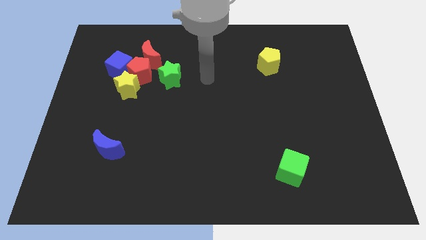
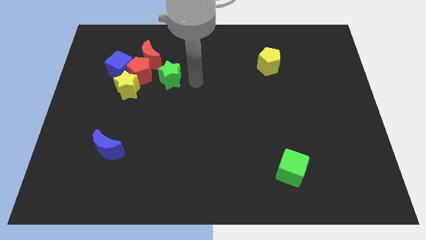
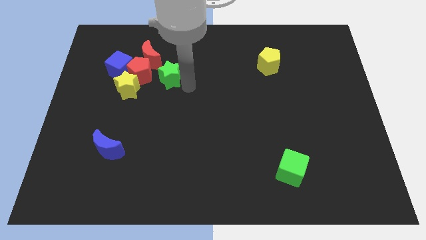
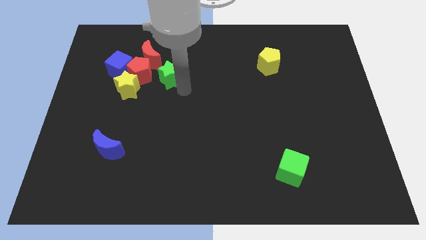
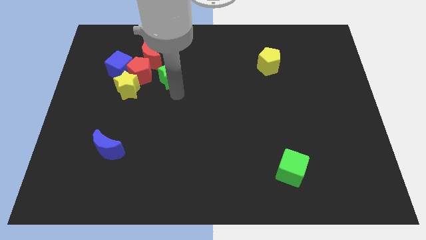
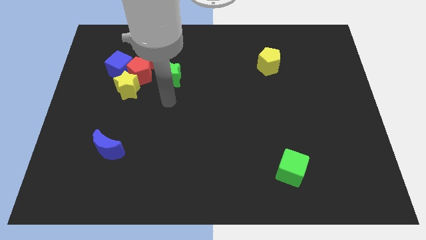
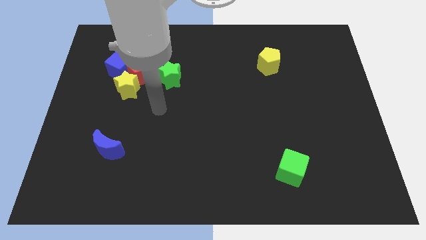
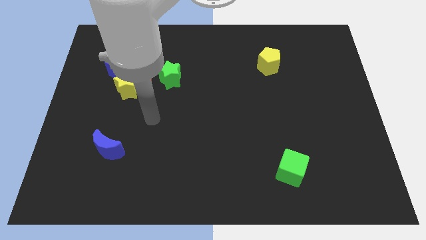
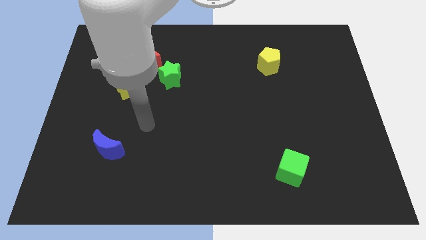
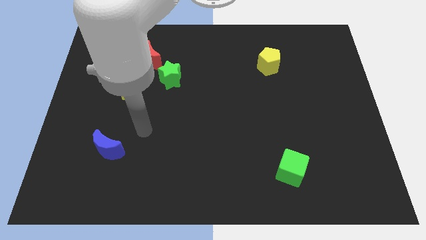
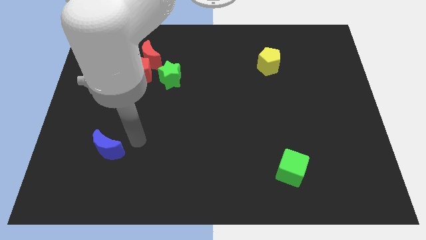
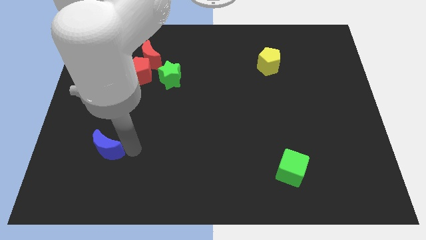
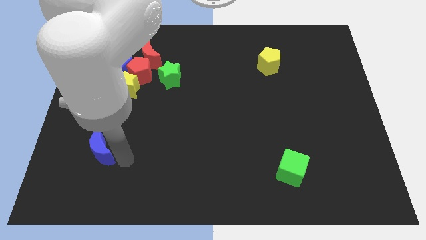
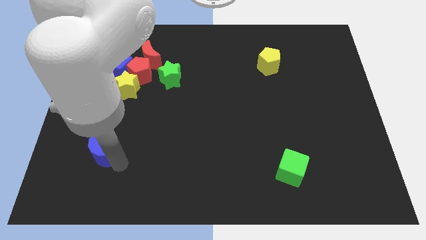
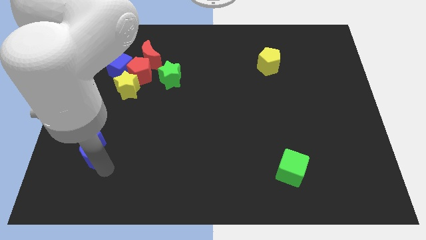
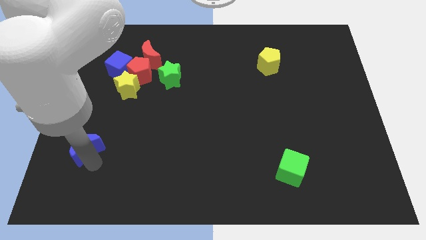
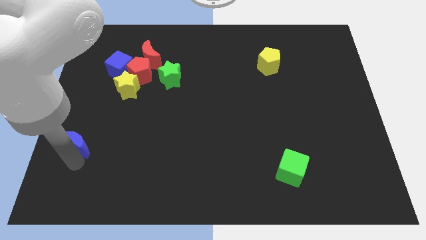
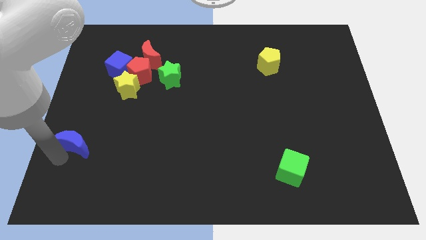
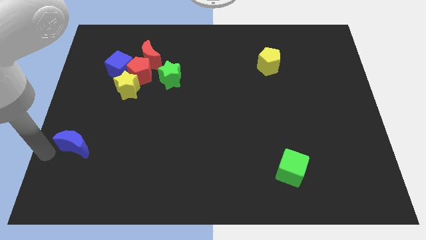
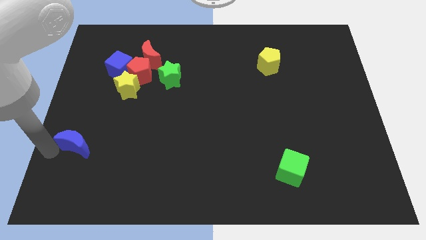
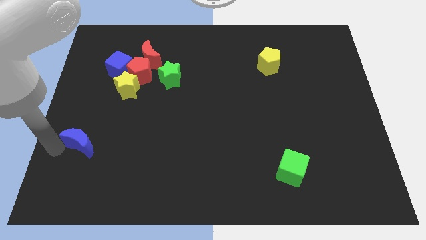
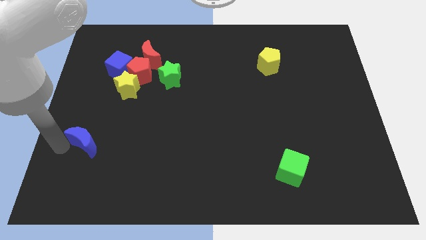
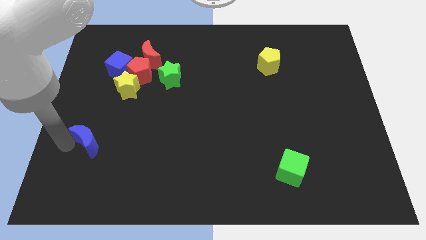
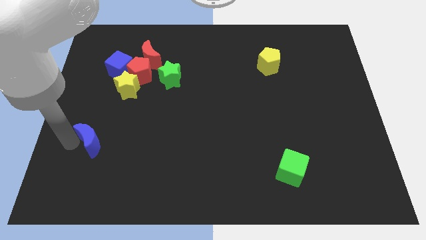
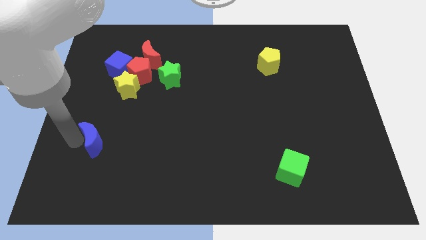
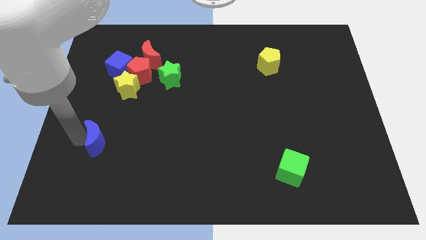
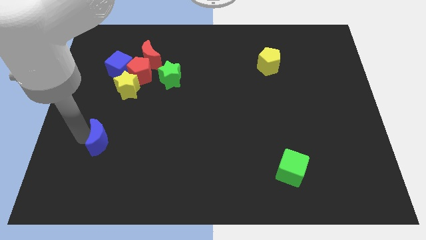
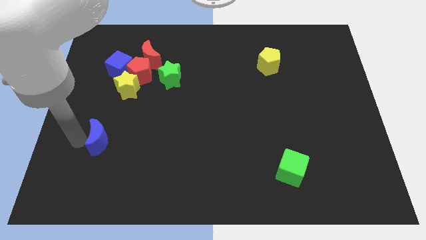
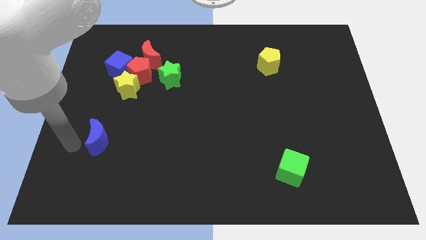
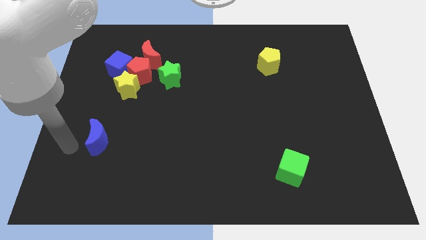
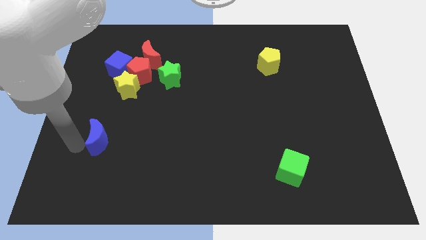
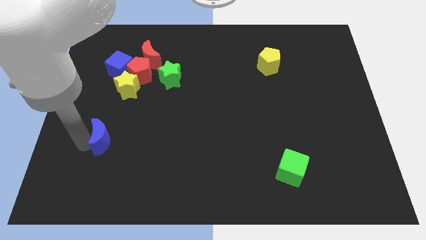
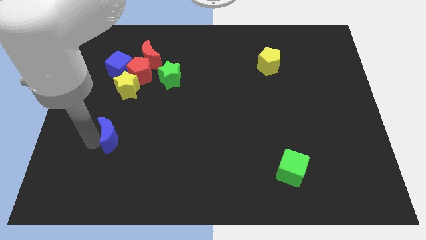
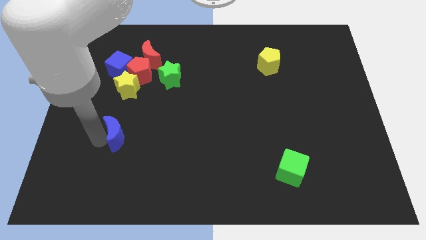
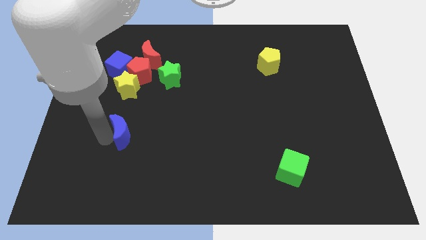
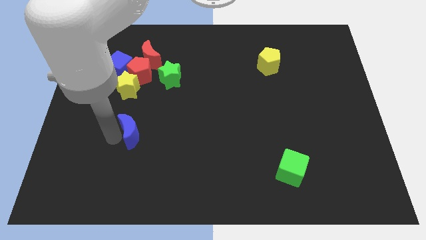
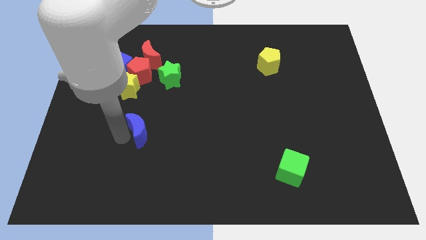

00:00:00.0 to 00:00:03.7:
slide the blue moon a little bit upwards and to the right

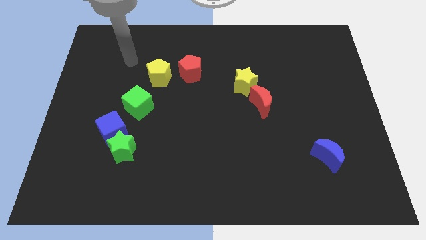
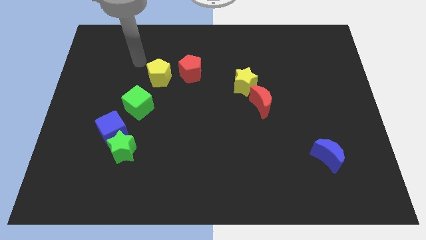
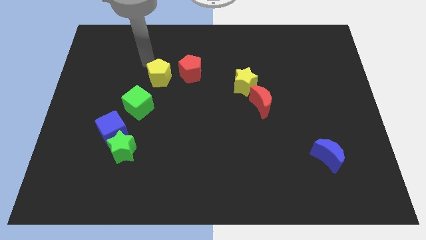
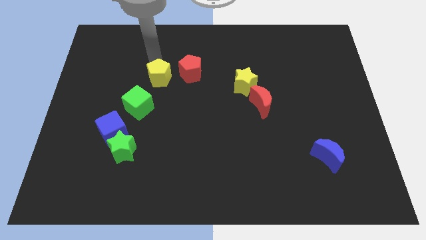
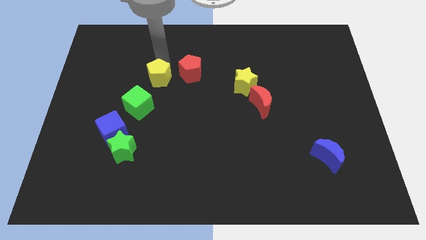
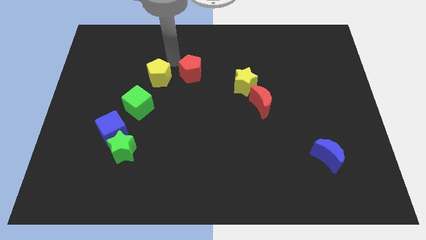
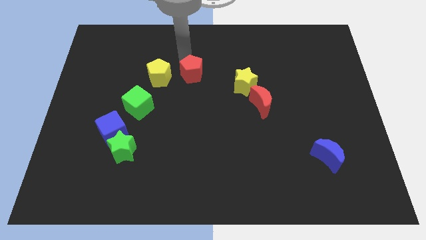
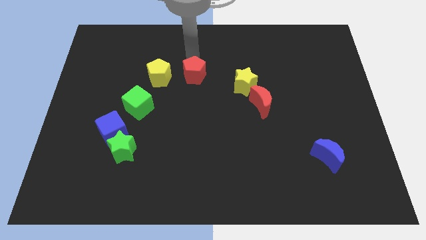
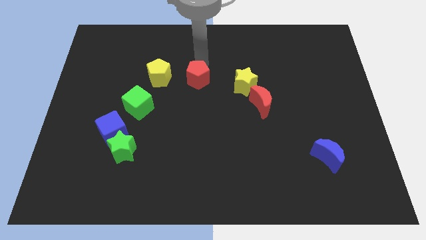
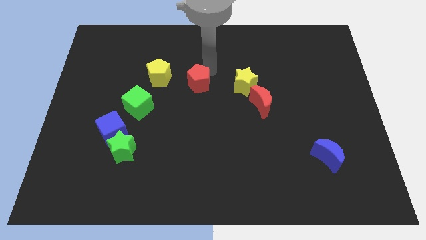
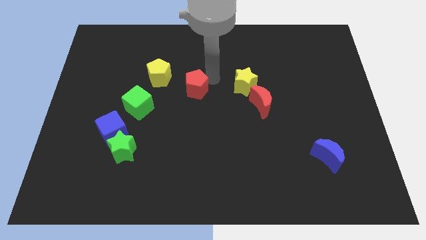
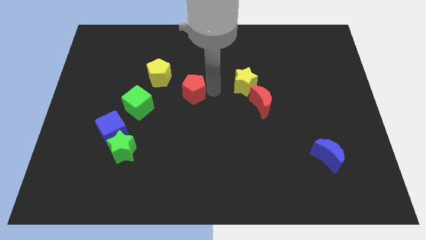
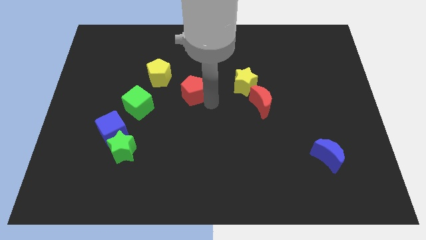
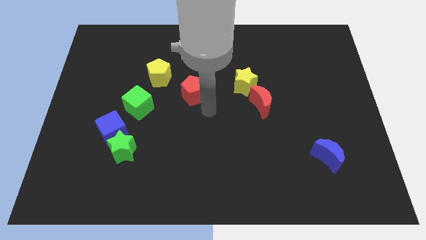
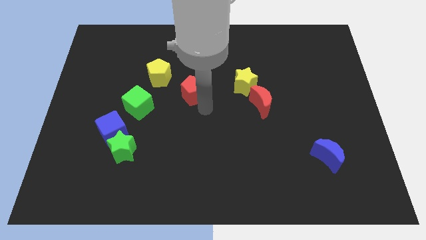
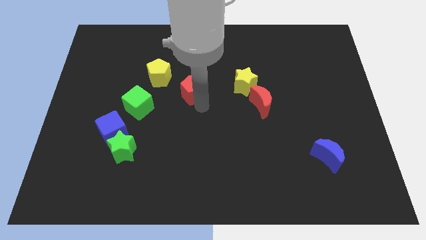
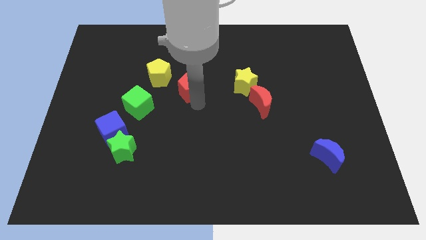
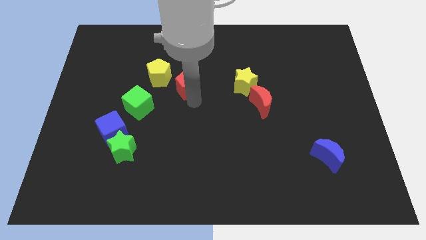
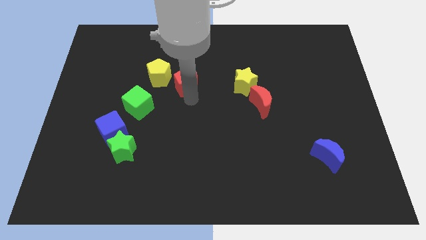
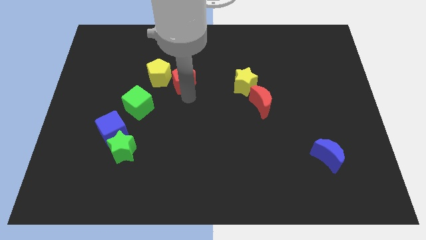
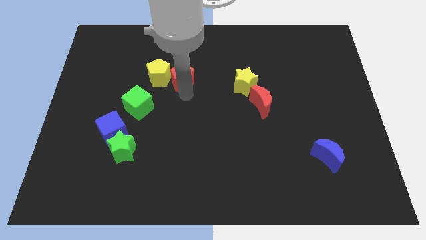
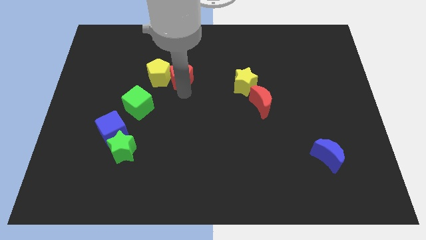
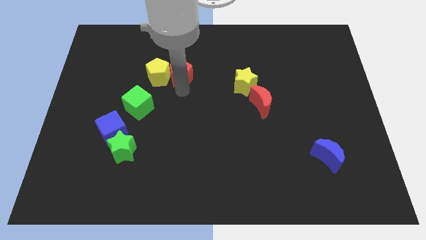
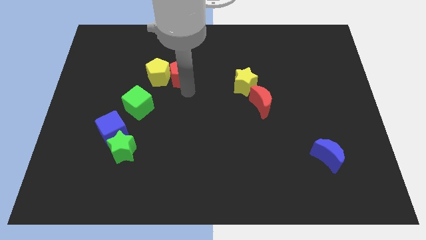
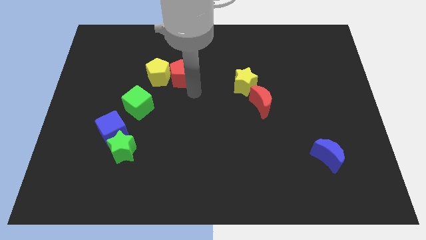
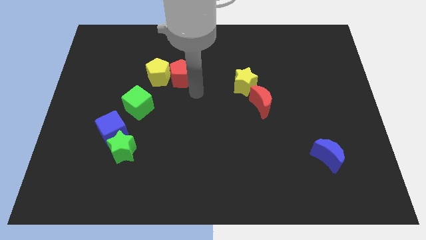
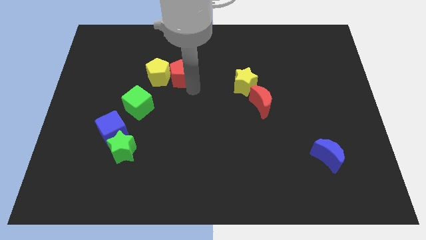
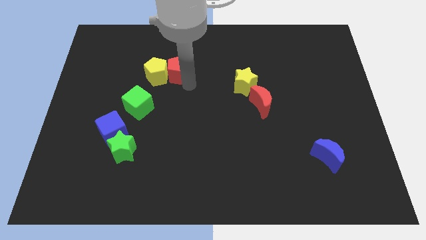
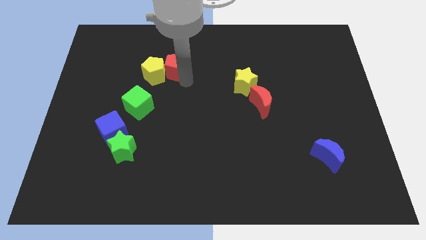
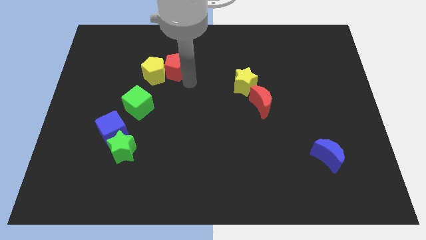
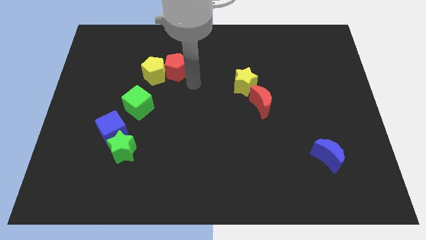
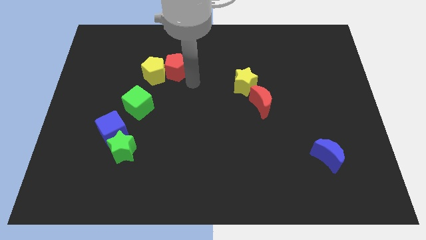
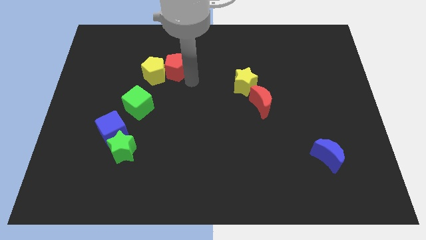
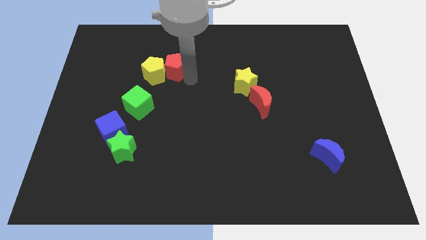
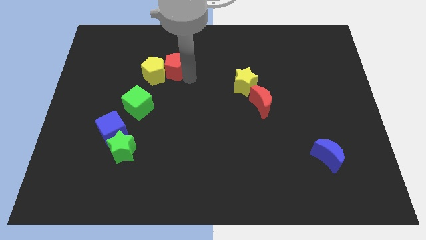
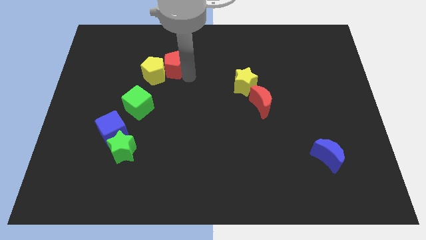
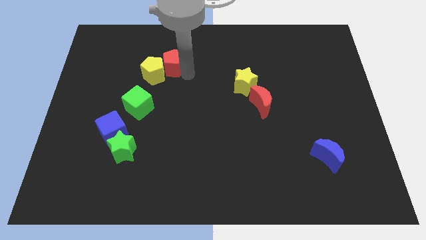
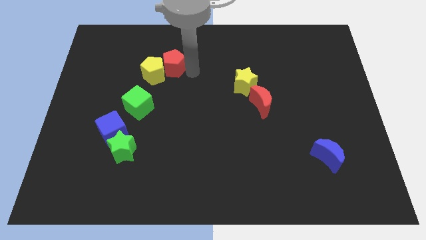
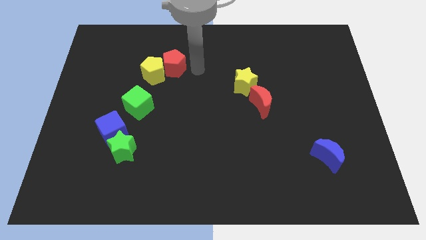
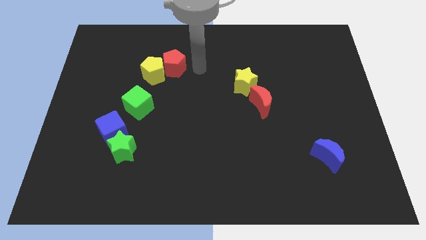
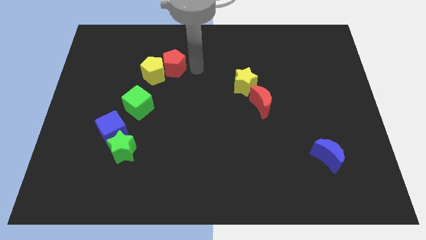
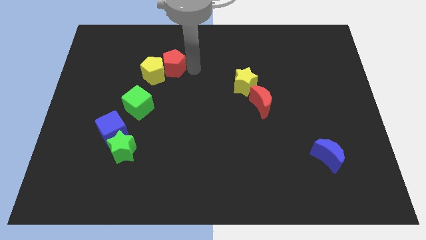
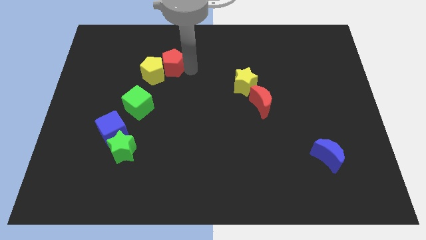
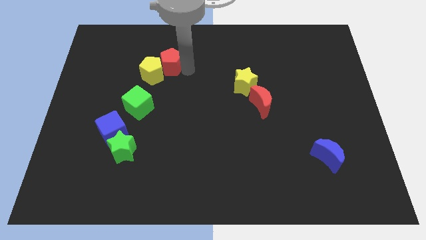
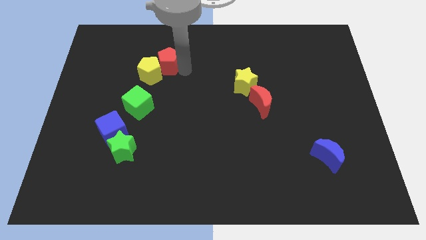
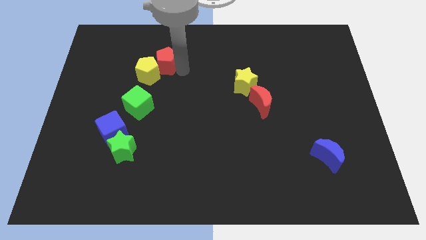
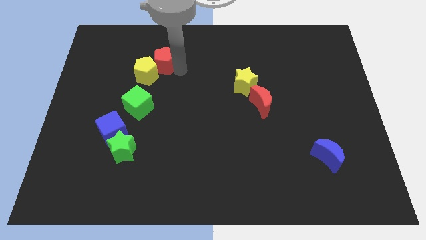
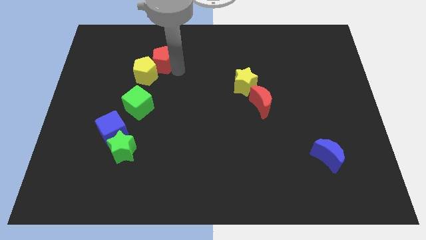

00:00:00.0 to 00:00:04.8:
slide the red pentagon somewhat to the left

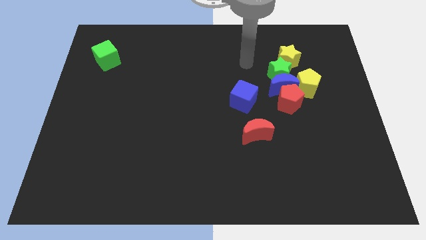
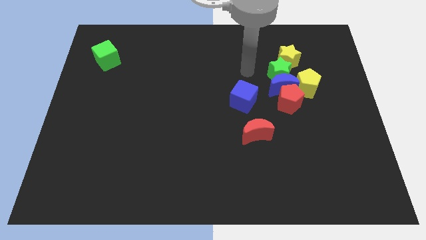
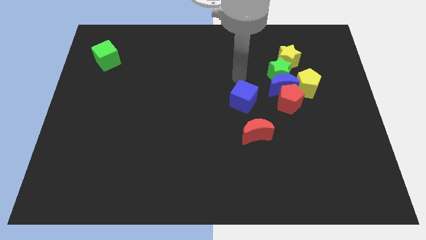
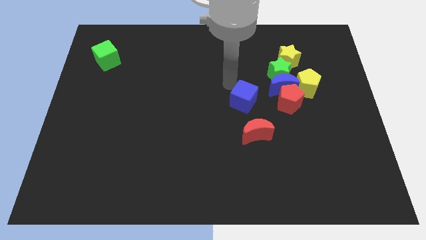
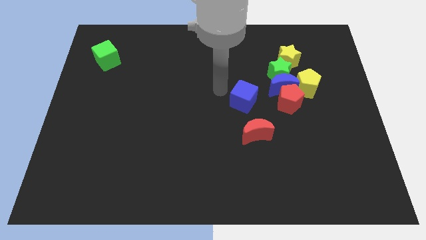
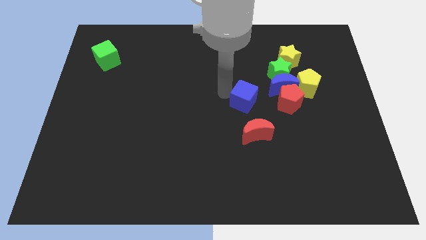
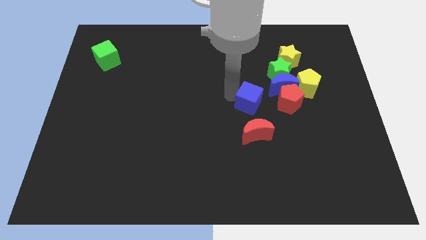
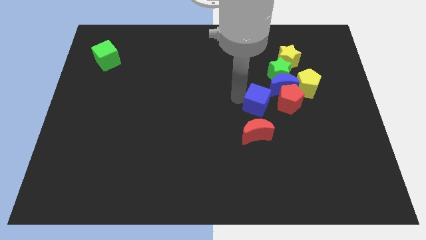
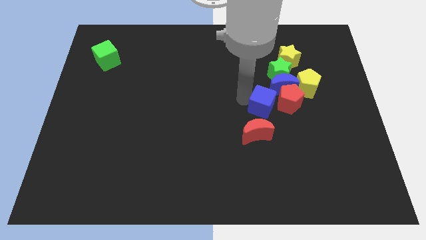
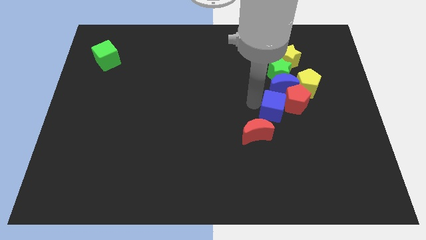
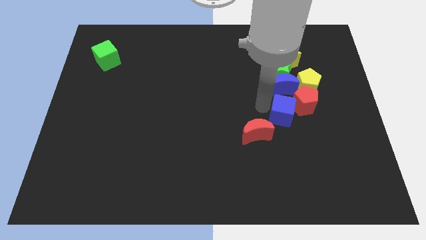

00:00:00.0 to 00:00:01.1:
slightly slide the blue cube to the right
